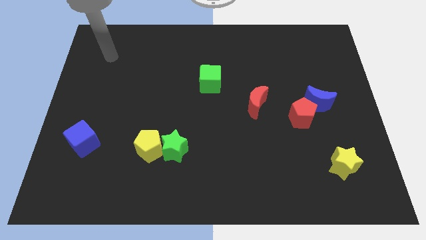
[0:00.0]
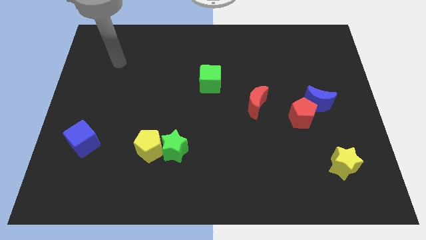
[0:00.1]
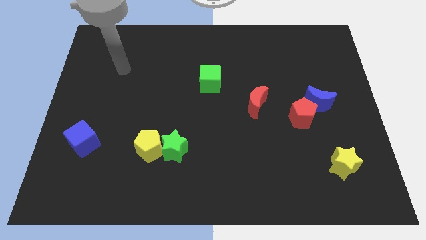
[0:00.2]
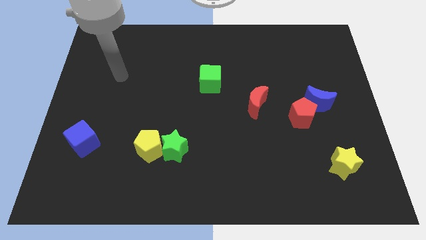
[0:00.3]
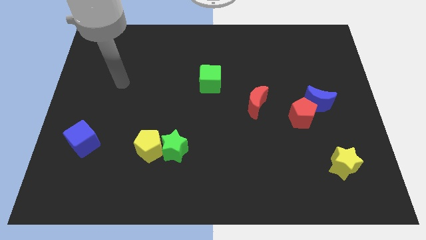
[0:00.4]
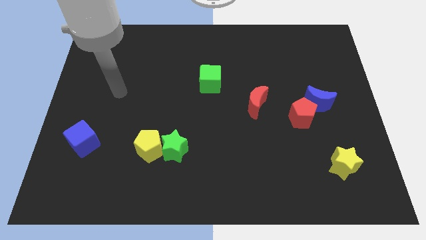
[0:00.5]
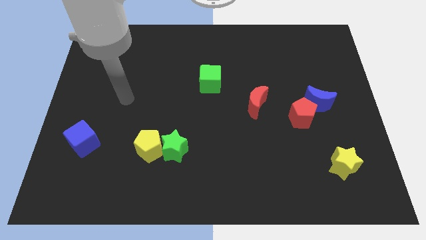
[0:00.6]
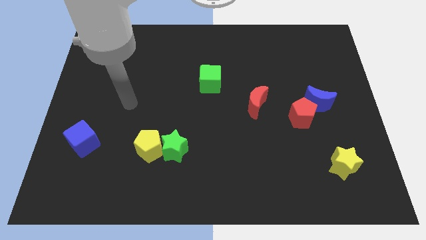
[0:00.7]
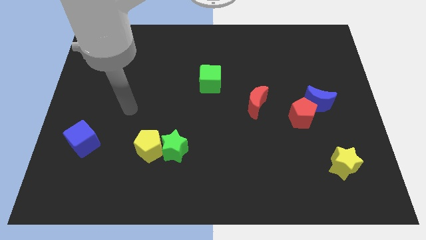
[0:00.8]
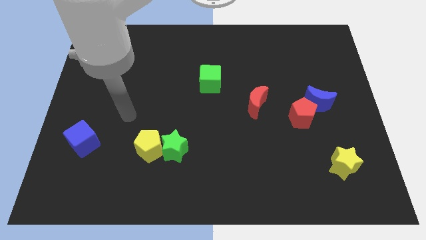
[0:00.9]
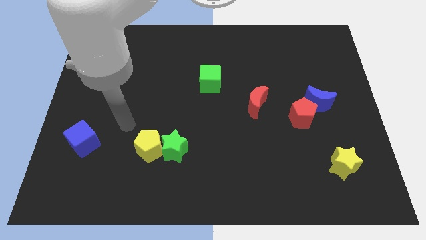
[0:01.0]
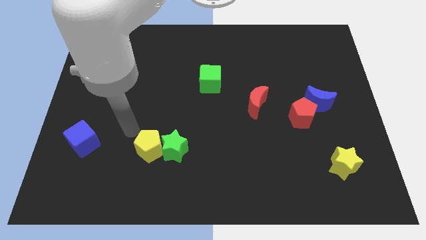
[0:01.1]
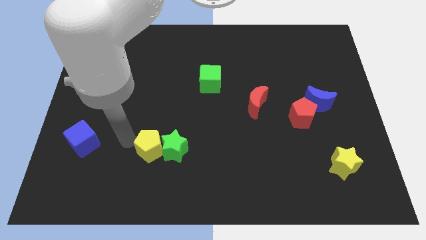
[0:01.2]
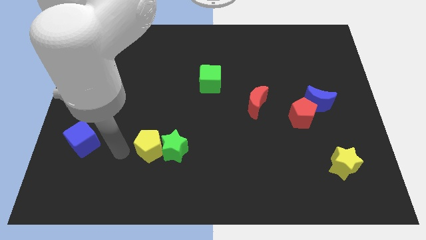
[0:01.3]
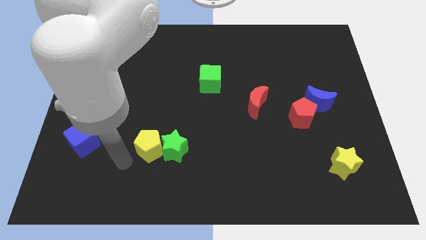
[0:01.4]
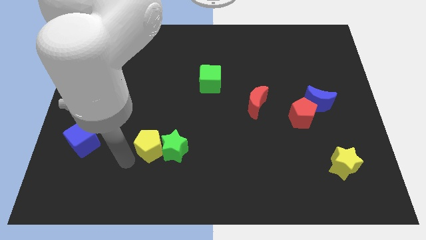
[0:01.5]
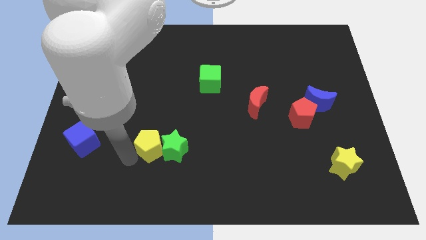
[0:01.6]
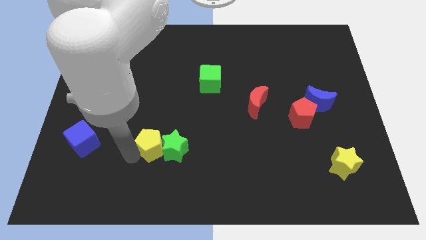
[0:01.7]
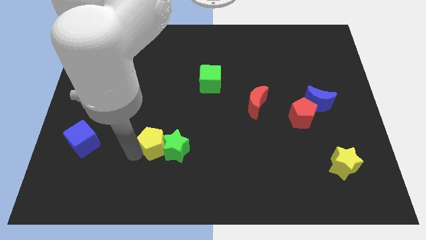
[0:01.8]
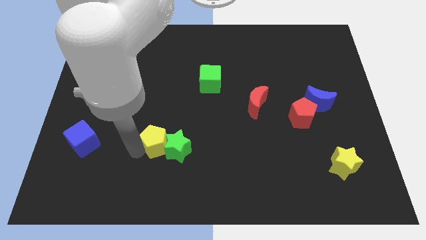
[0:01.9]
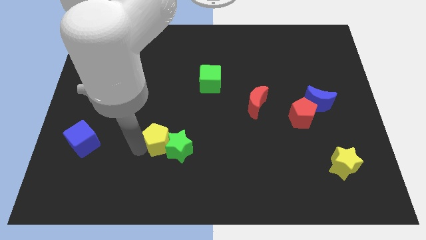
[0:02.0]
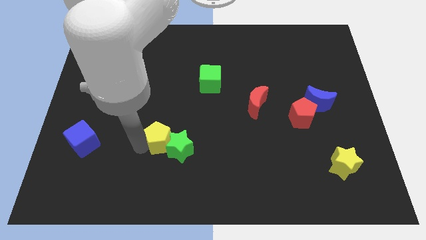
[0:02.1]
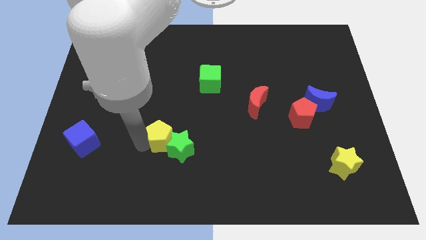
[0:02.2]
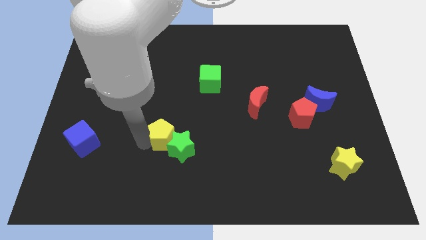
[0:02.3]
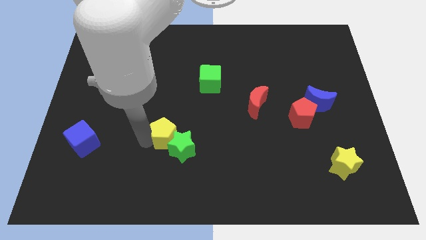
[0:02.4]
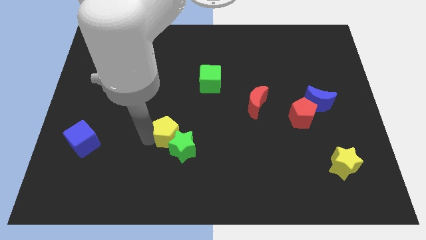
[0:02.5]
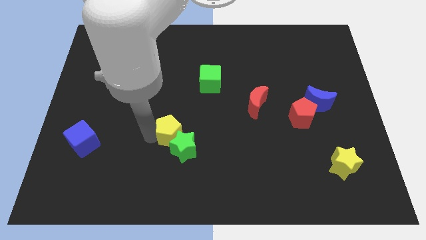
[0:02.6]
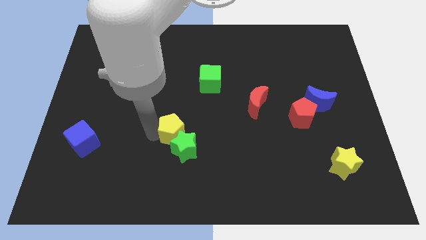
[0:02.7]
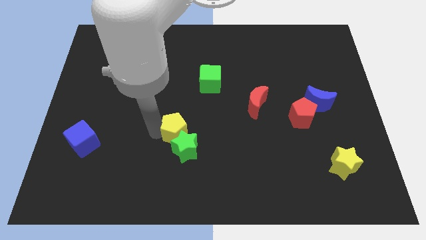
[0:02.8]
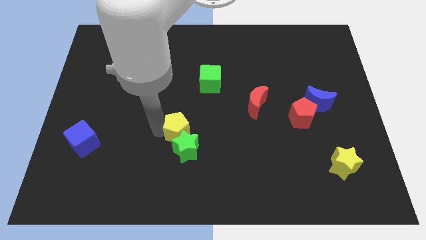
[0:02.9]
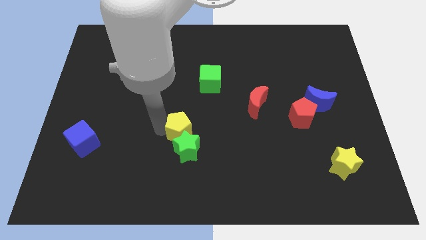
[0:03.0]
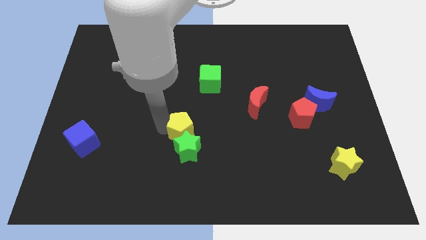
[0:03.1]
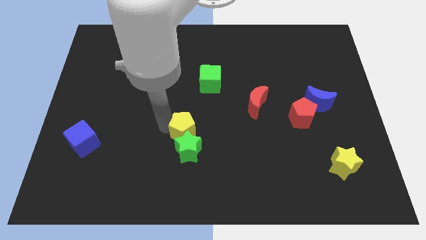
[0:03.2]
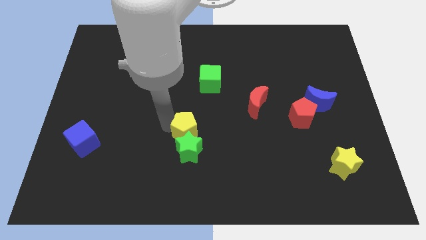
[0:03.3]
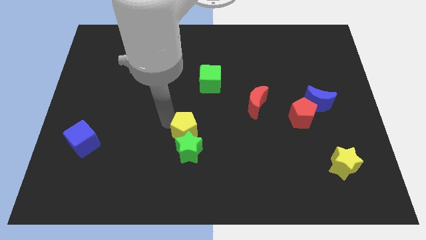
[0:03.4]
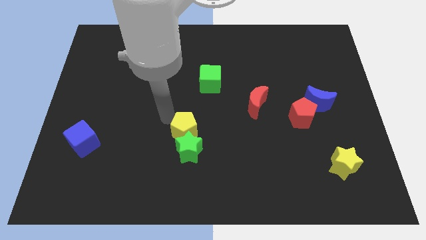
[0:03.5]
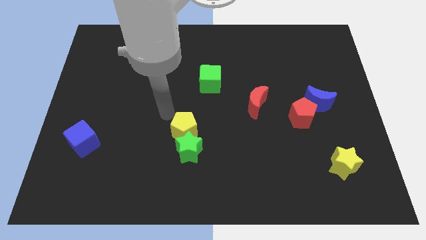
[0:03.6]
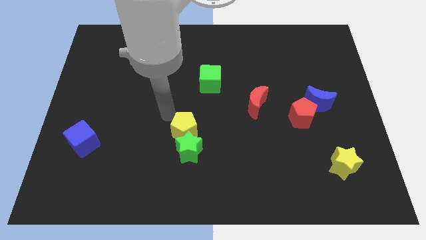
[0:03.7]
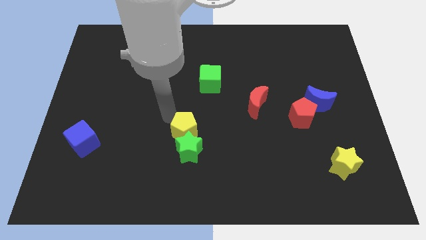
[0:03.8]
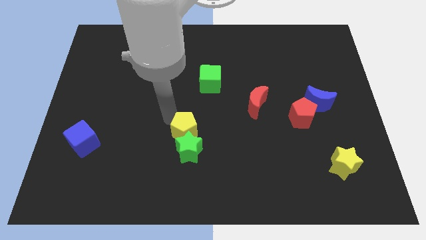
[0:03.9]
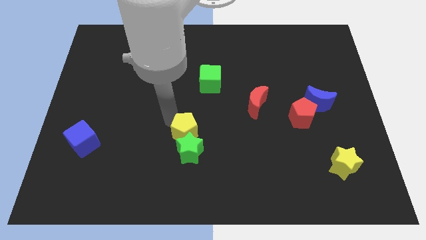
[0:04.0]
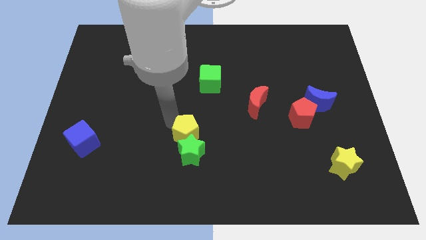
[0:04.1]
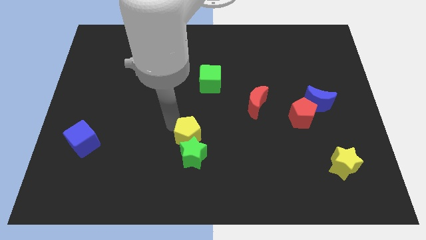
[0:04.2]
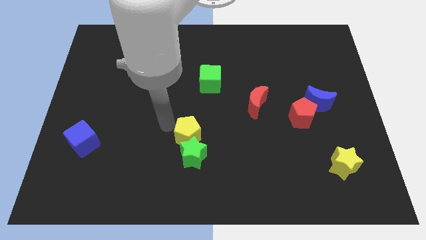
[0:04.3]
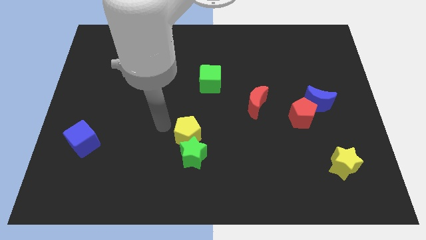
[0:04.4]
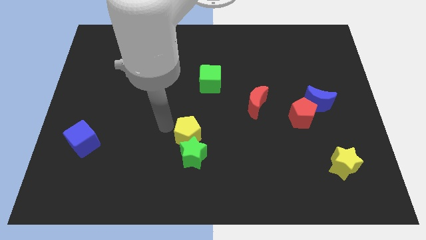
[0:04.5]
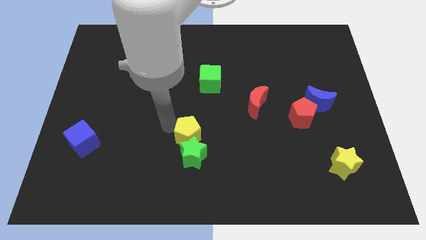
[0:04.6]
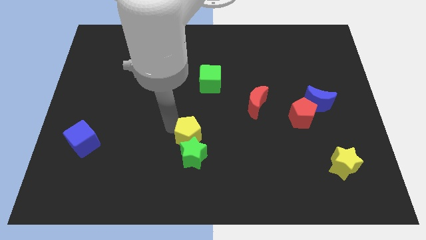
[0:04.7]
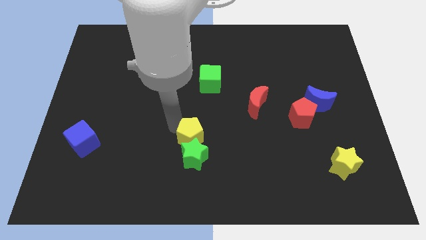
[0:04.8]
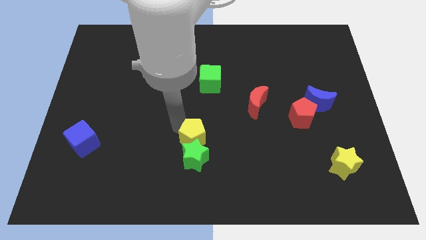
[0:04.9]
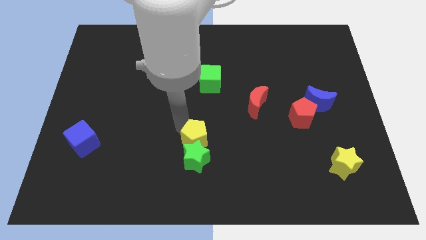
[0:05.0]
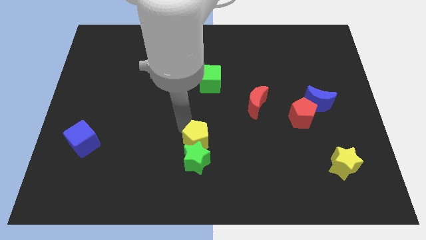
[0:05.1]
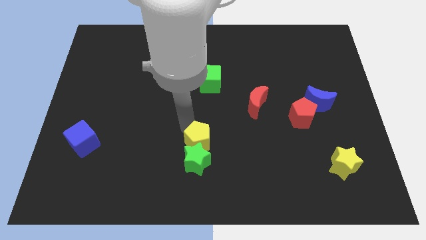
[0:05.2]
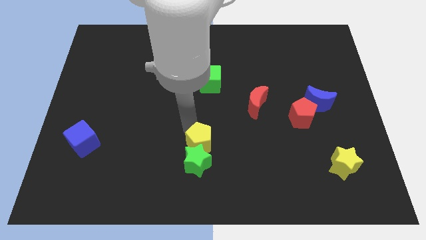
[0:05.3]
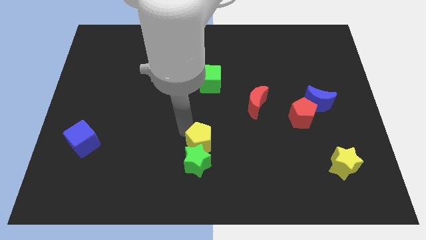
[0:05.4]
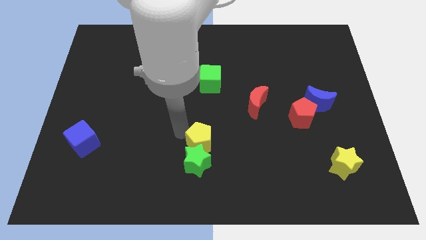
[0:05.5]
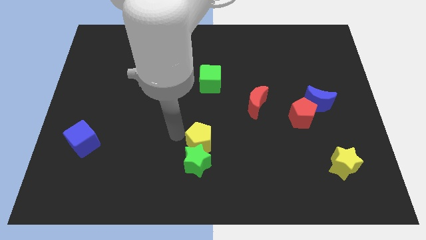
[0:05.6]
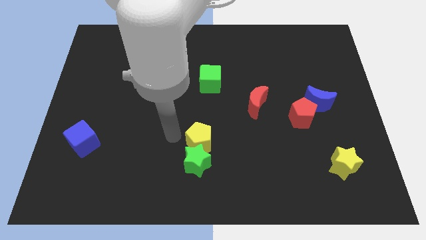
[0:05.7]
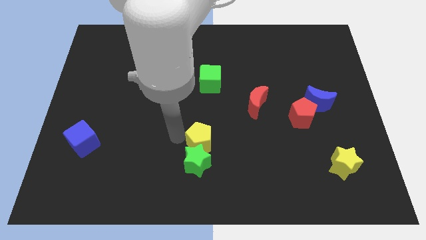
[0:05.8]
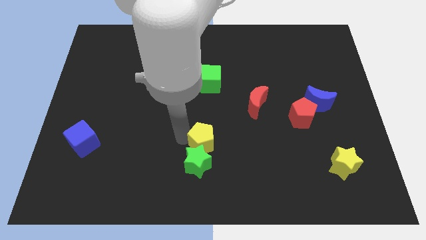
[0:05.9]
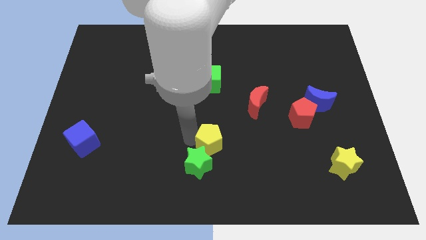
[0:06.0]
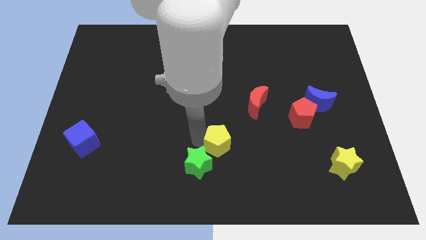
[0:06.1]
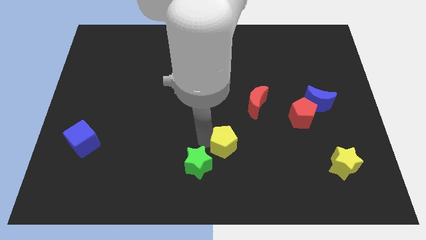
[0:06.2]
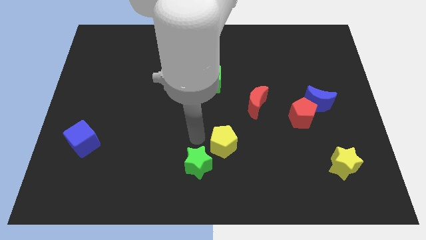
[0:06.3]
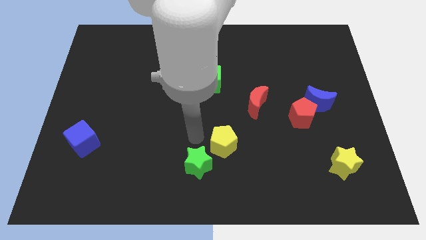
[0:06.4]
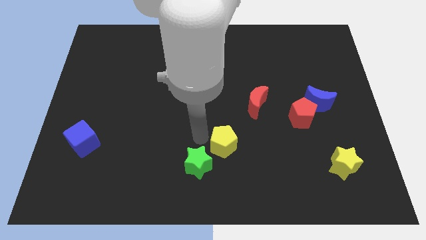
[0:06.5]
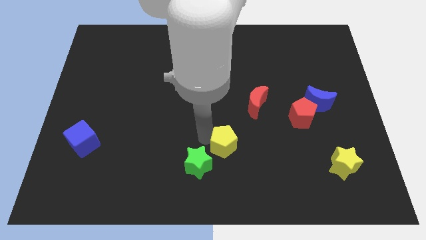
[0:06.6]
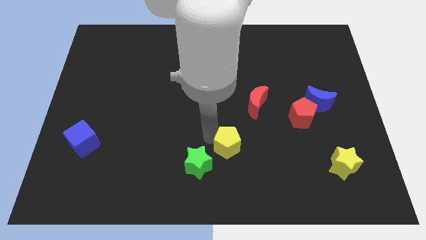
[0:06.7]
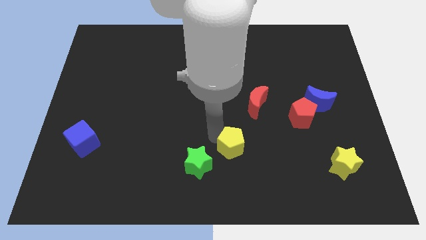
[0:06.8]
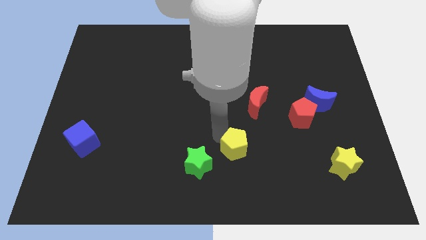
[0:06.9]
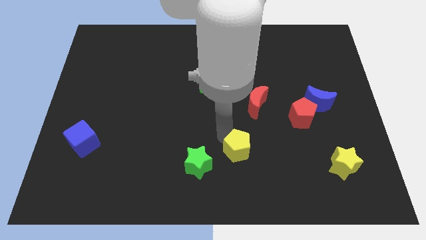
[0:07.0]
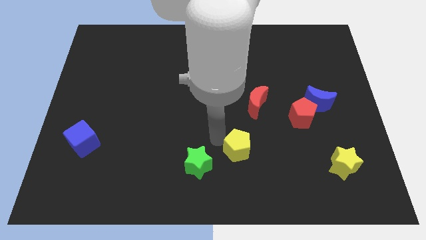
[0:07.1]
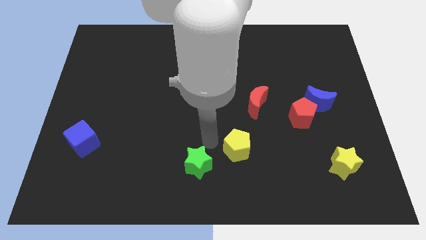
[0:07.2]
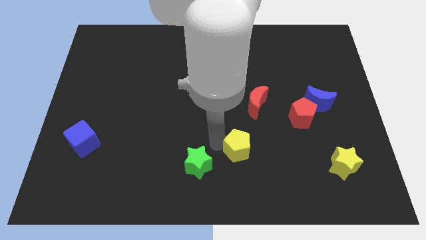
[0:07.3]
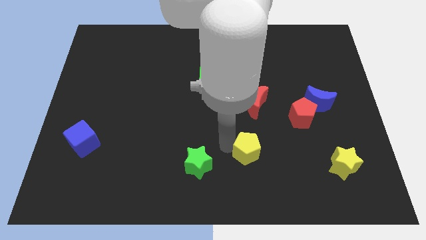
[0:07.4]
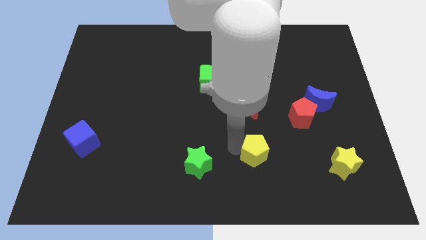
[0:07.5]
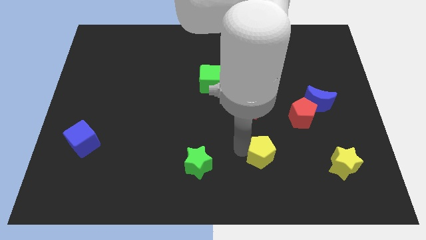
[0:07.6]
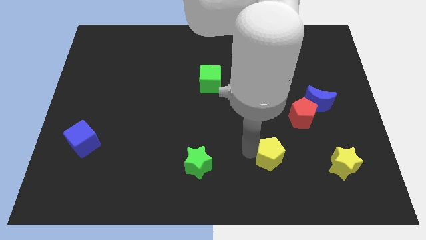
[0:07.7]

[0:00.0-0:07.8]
move the yellow pentagon to the left of the yellow star
